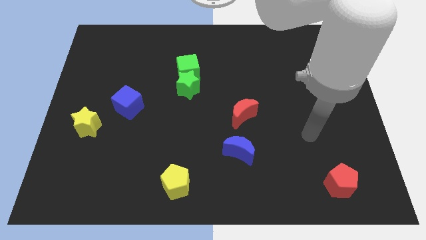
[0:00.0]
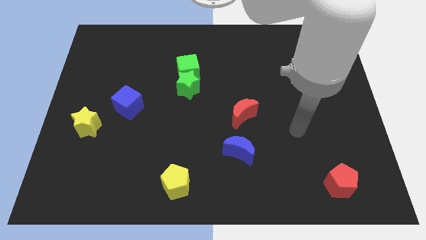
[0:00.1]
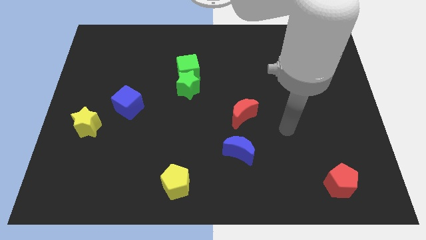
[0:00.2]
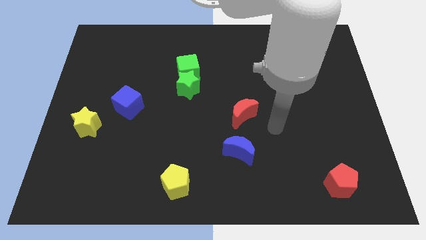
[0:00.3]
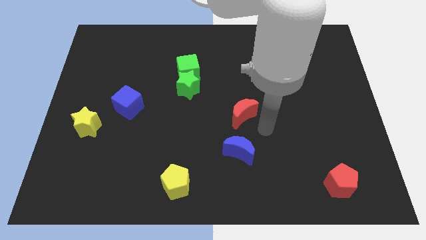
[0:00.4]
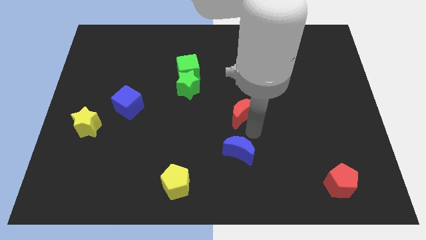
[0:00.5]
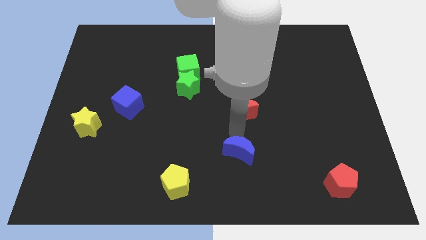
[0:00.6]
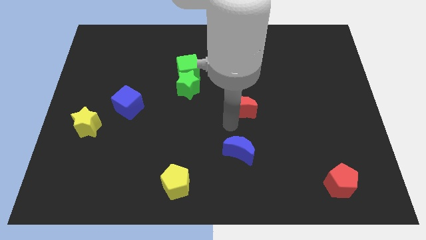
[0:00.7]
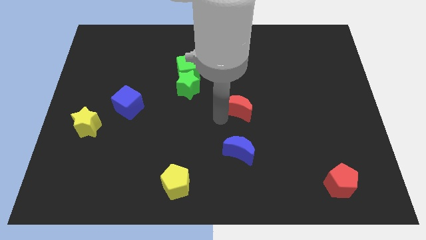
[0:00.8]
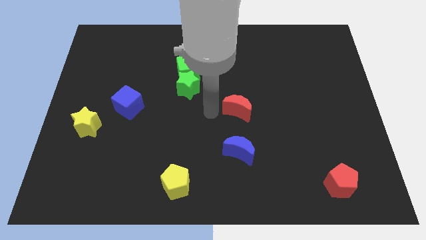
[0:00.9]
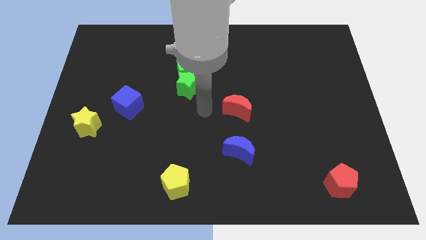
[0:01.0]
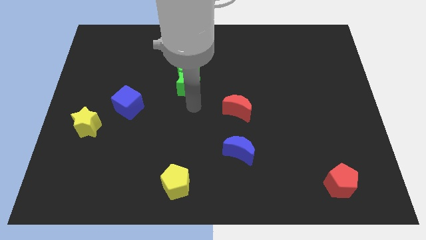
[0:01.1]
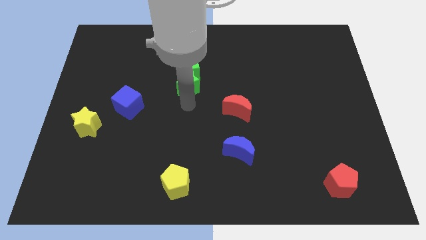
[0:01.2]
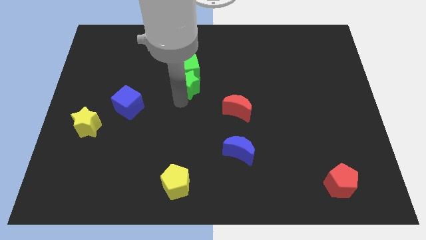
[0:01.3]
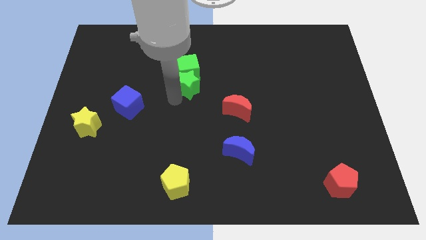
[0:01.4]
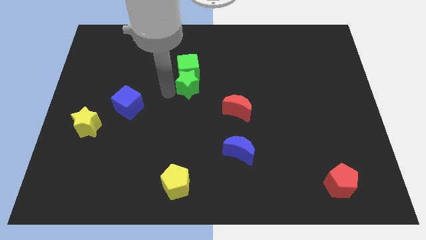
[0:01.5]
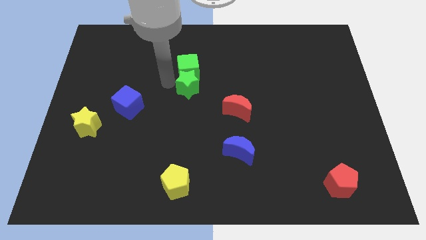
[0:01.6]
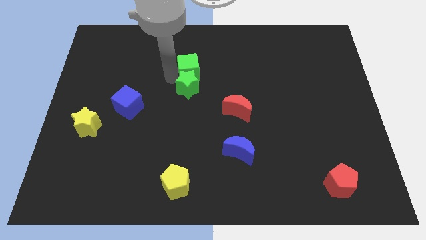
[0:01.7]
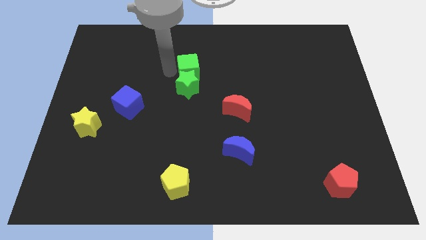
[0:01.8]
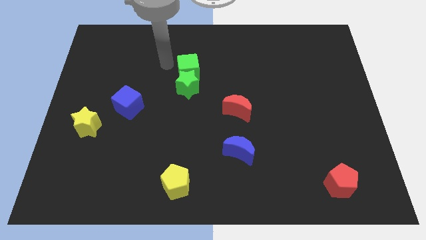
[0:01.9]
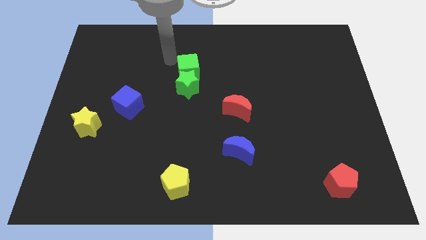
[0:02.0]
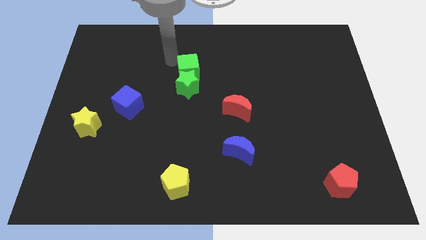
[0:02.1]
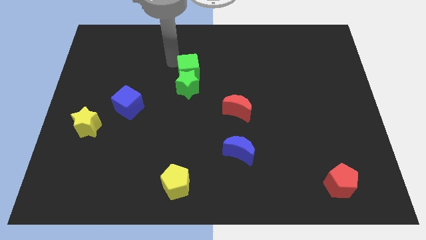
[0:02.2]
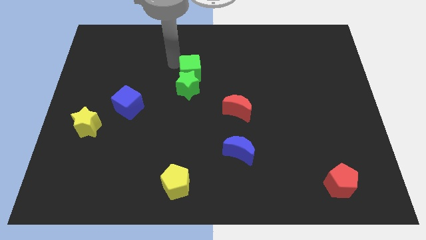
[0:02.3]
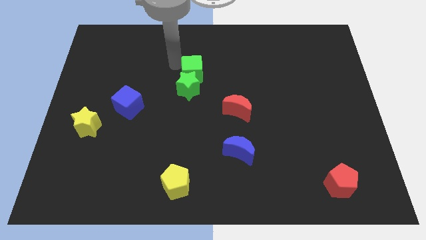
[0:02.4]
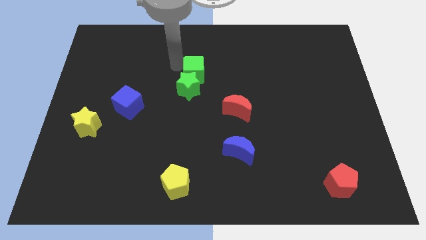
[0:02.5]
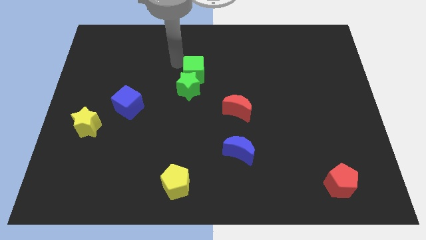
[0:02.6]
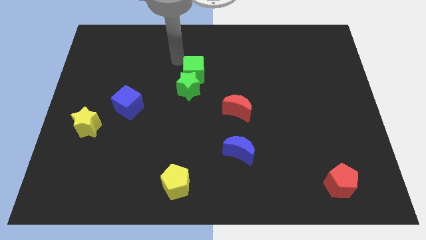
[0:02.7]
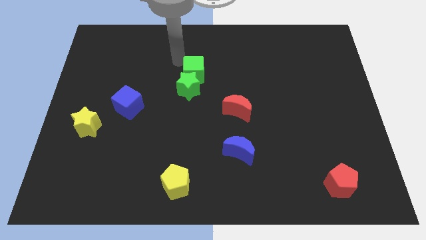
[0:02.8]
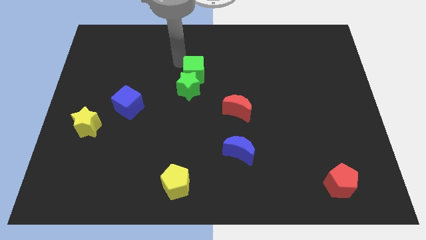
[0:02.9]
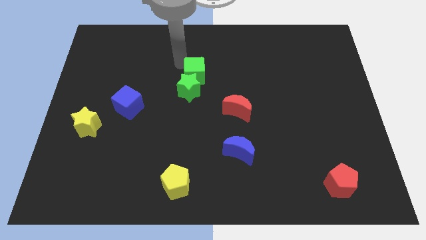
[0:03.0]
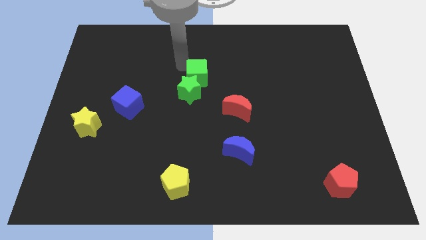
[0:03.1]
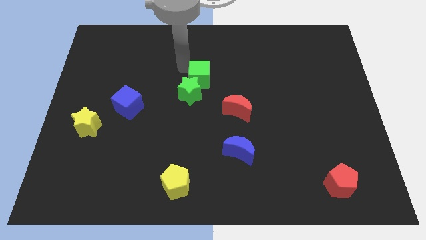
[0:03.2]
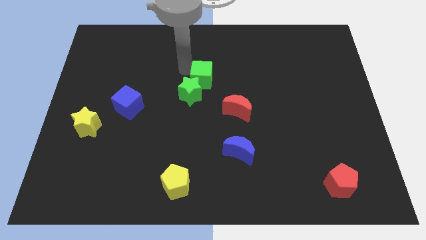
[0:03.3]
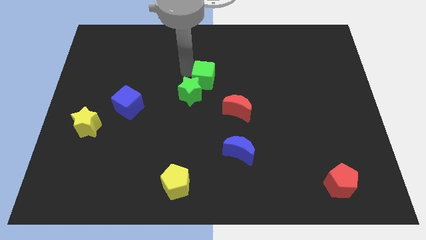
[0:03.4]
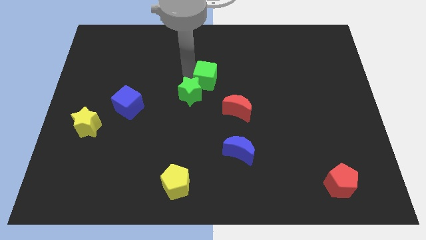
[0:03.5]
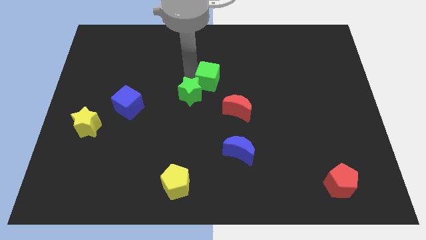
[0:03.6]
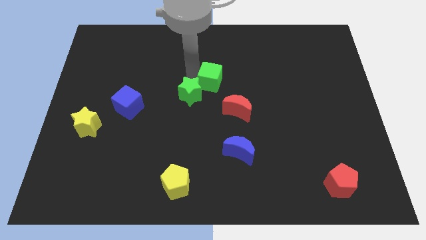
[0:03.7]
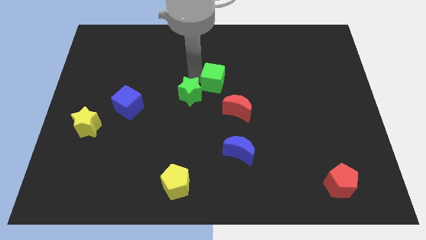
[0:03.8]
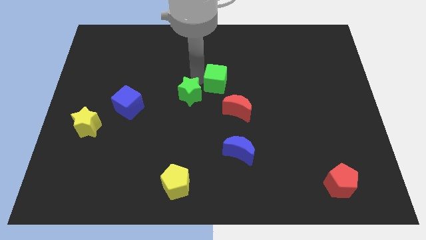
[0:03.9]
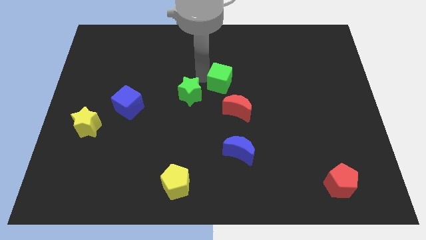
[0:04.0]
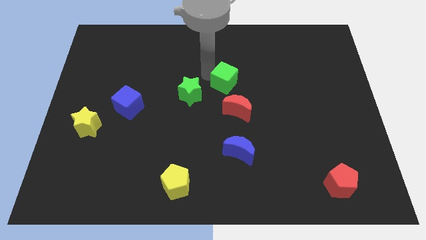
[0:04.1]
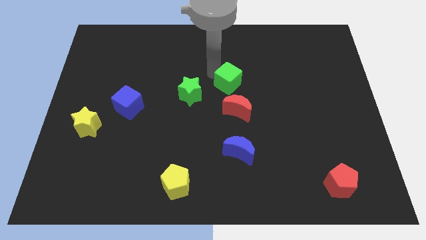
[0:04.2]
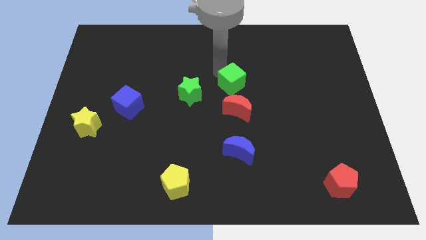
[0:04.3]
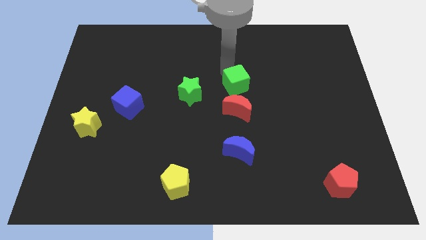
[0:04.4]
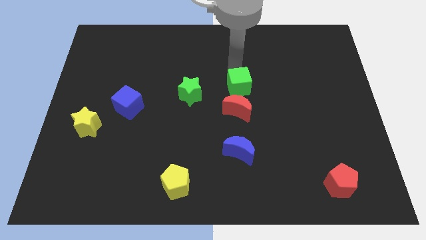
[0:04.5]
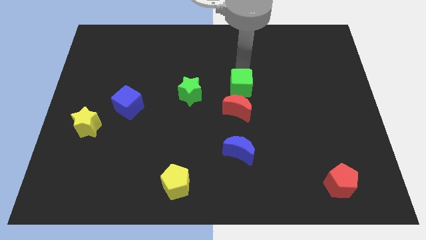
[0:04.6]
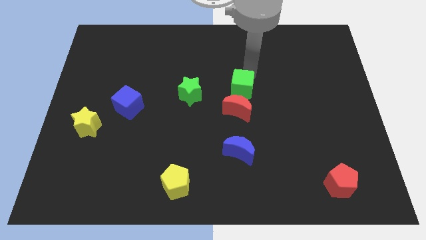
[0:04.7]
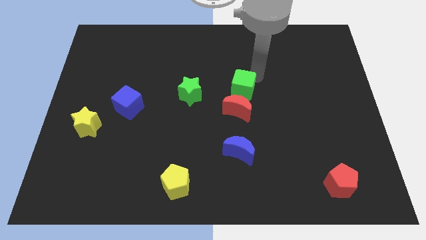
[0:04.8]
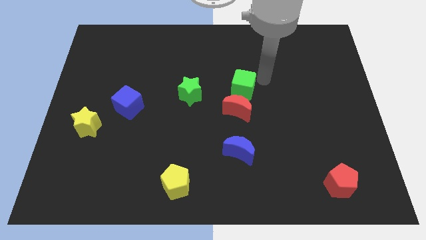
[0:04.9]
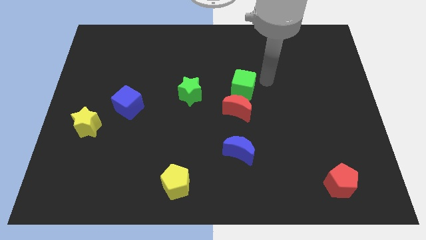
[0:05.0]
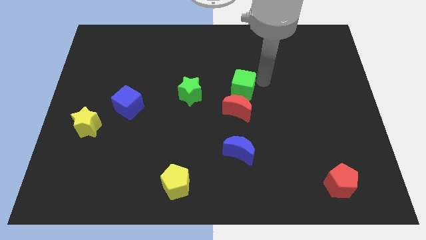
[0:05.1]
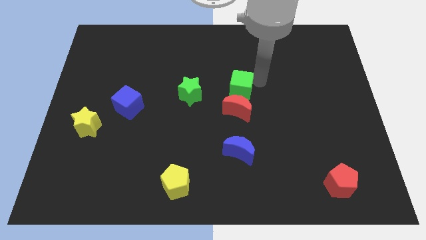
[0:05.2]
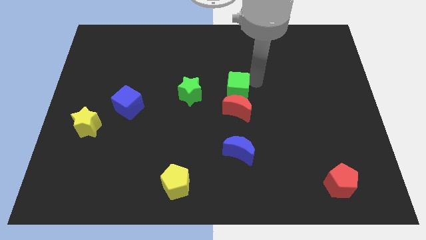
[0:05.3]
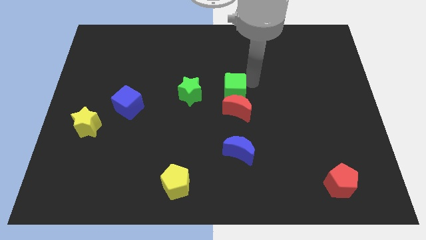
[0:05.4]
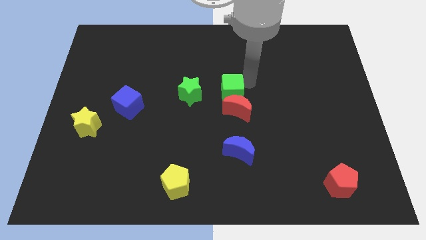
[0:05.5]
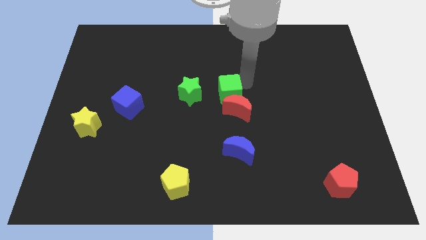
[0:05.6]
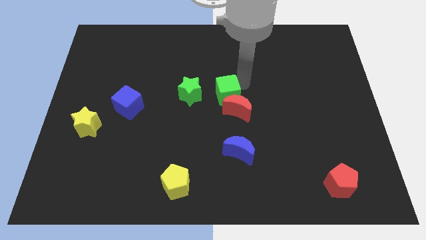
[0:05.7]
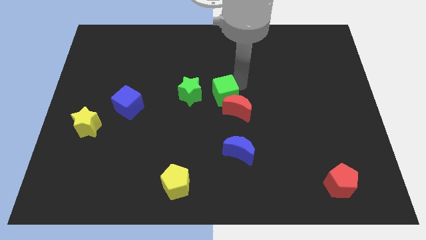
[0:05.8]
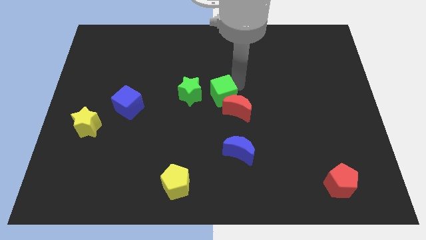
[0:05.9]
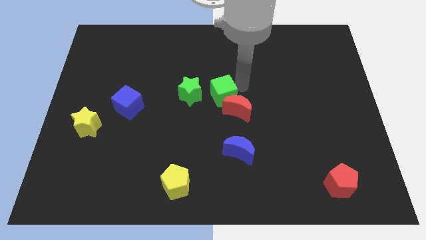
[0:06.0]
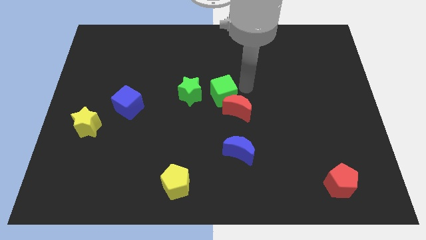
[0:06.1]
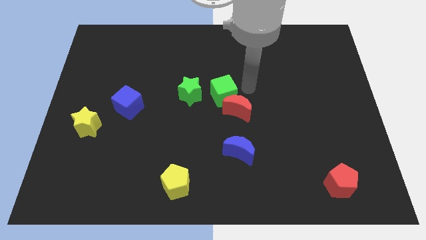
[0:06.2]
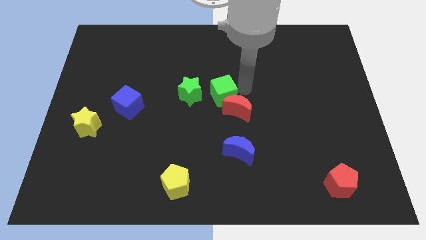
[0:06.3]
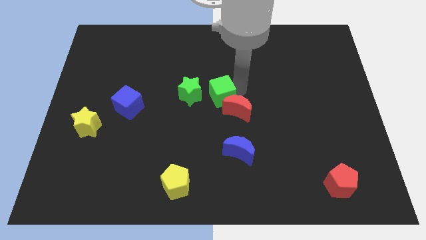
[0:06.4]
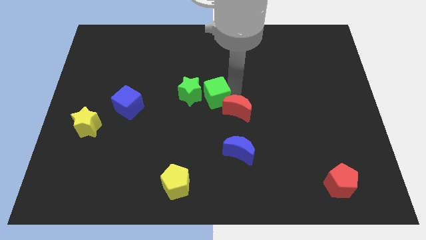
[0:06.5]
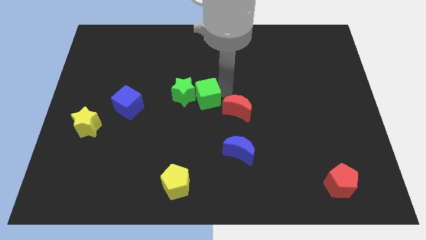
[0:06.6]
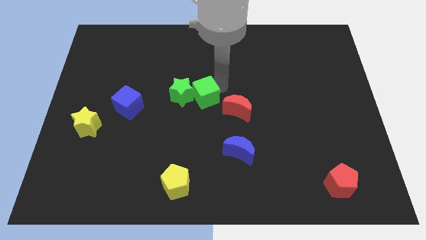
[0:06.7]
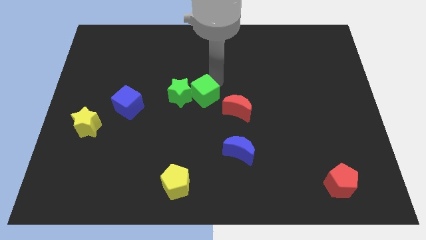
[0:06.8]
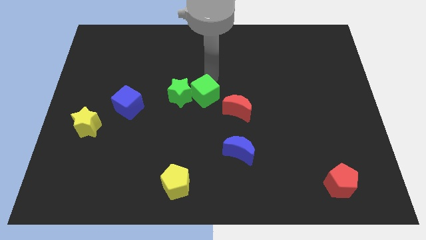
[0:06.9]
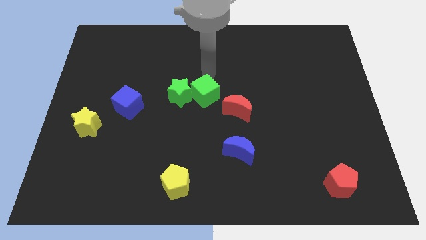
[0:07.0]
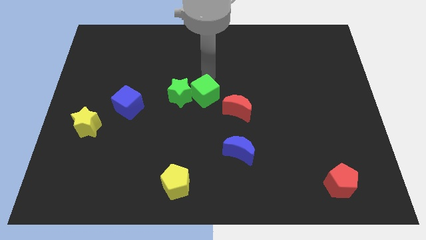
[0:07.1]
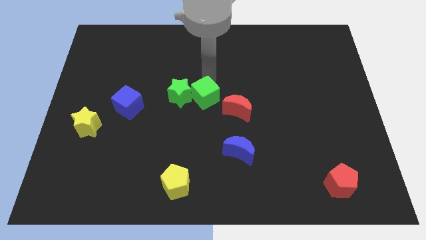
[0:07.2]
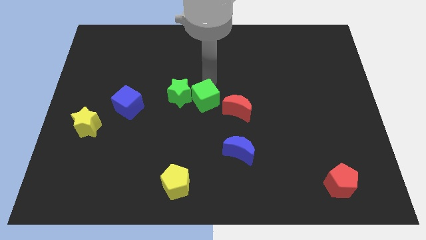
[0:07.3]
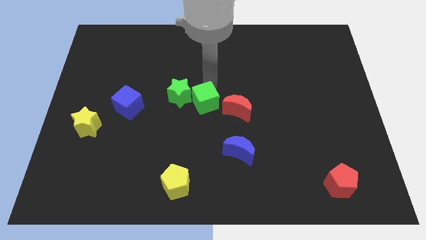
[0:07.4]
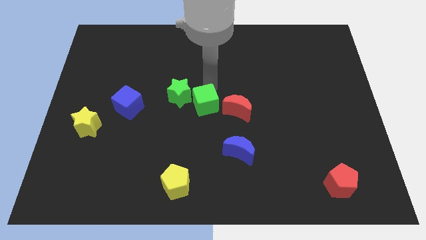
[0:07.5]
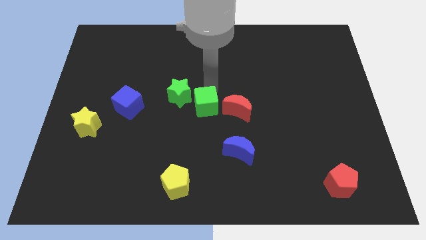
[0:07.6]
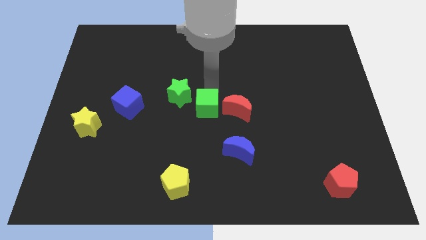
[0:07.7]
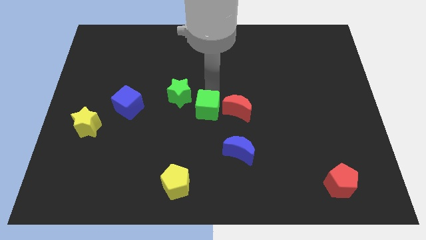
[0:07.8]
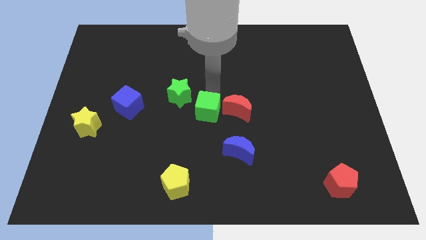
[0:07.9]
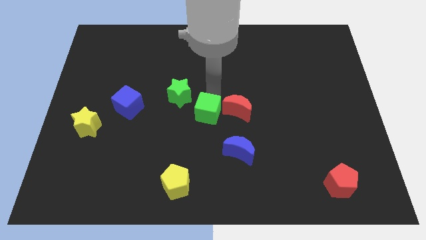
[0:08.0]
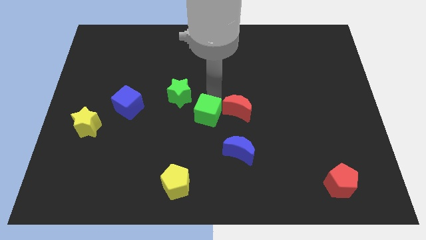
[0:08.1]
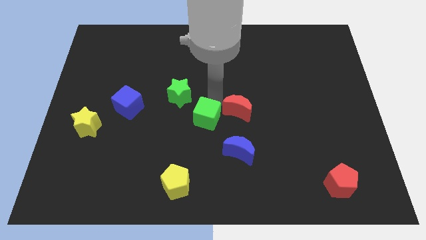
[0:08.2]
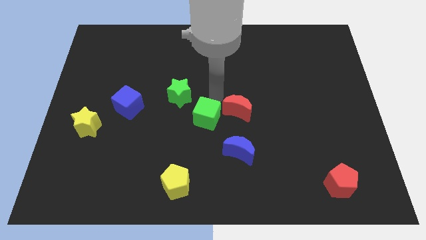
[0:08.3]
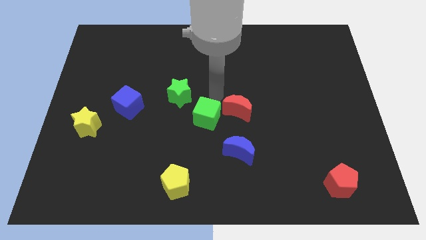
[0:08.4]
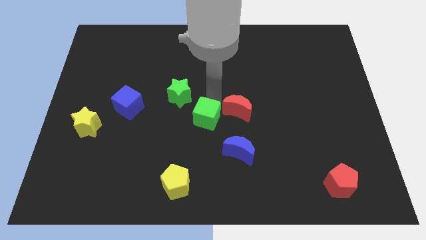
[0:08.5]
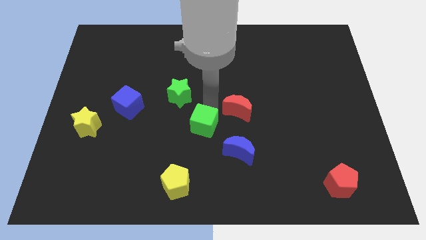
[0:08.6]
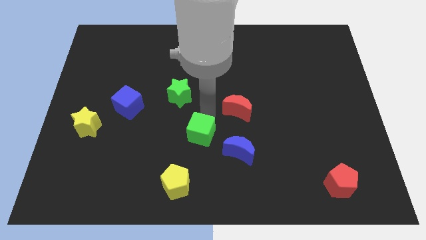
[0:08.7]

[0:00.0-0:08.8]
put the green cube to the left side of the blue moon
